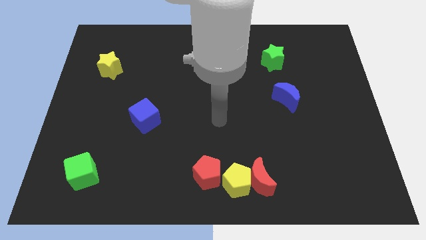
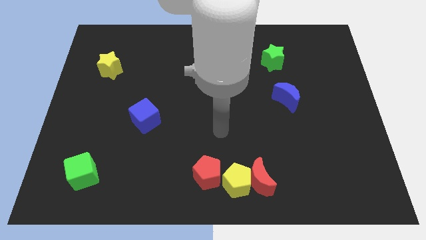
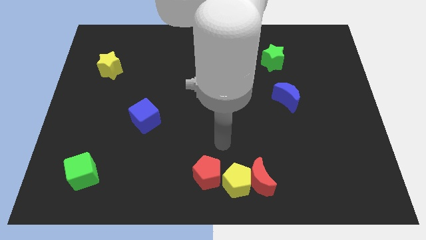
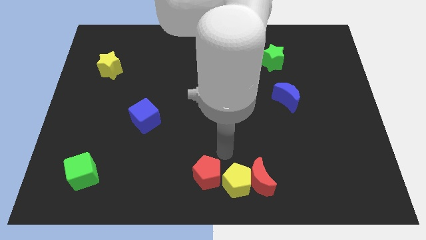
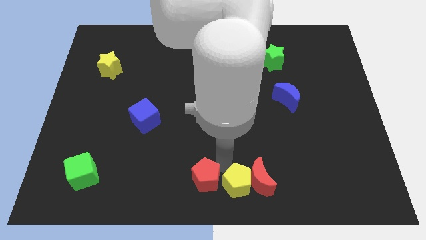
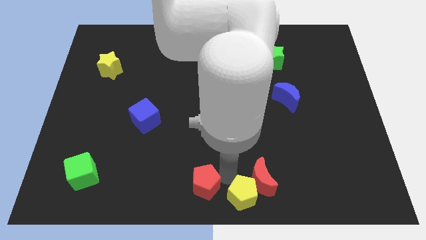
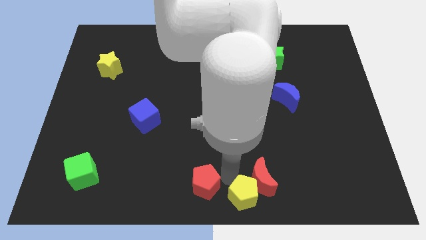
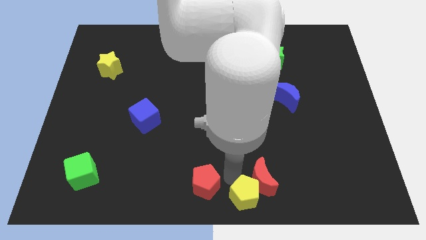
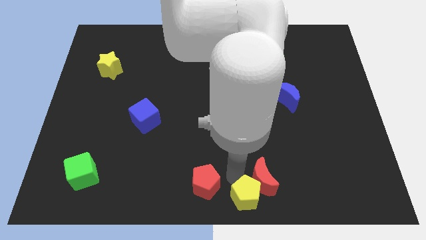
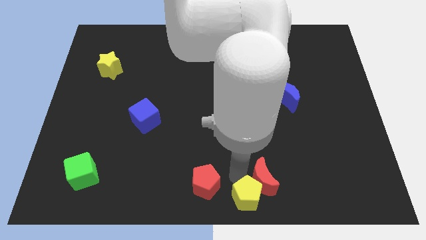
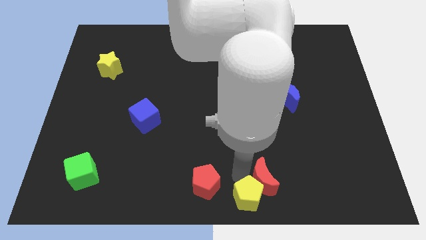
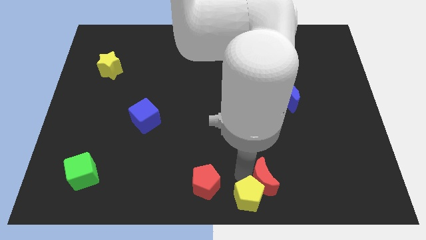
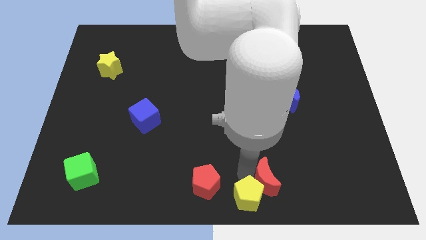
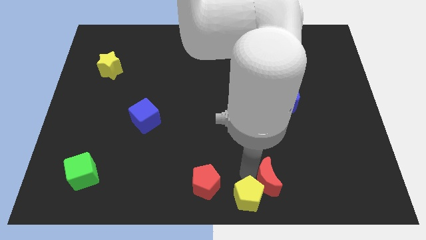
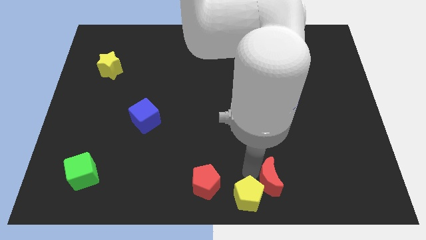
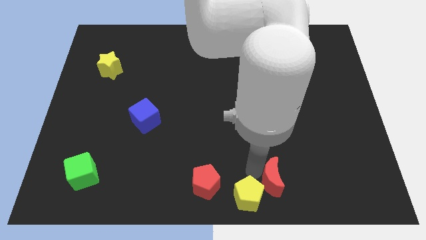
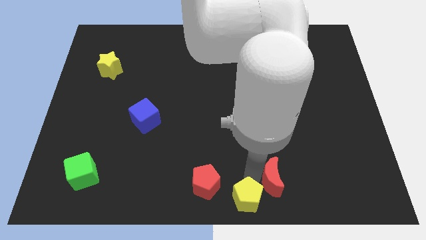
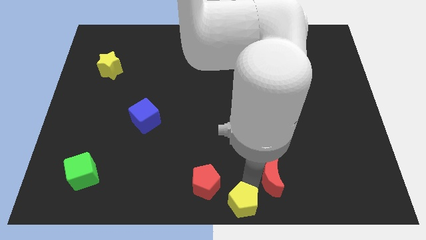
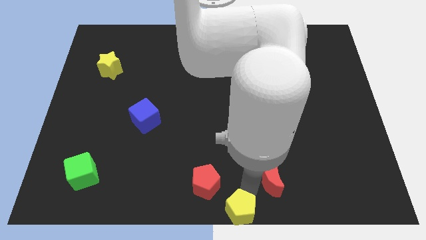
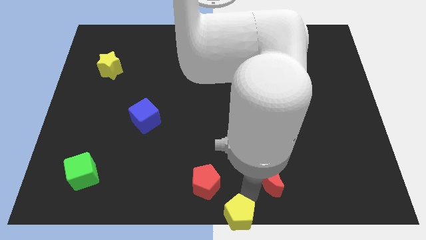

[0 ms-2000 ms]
pull the red moon apart from the yellow pentagon

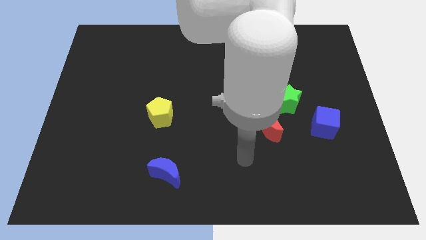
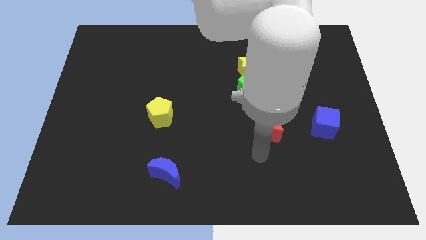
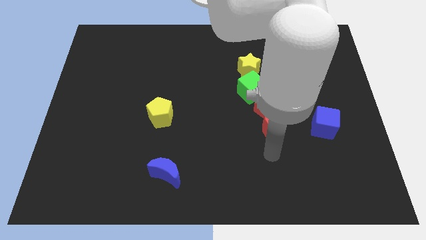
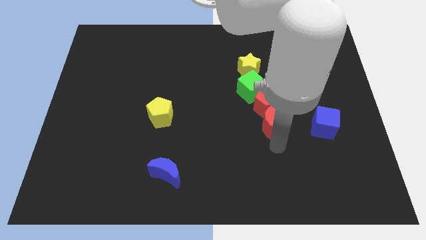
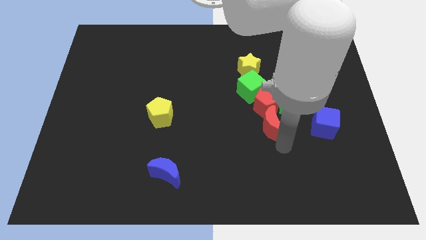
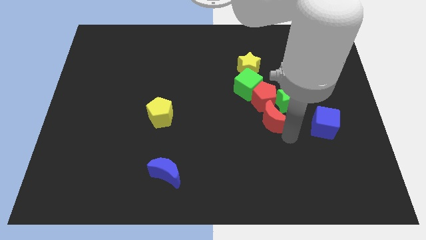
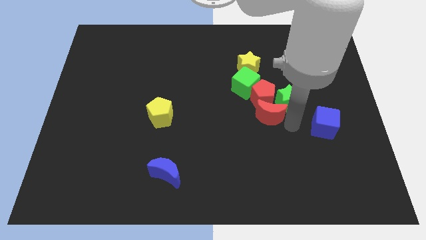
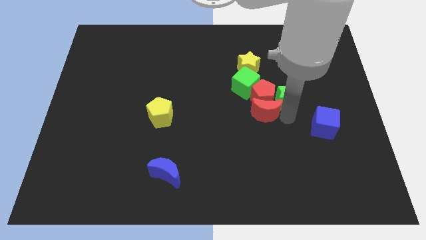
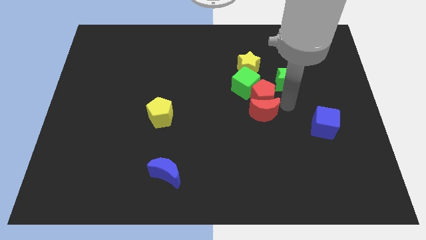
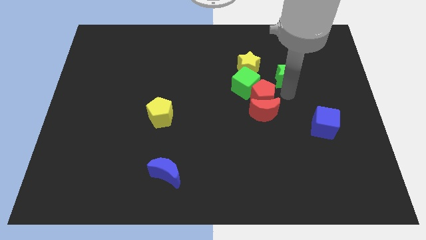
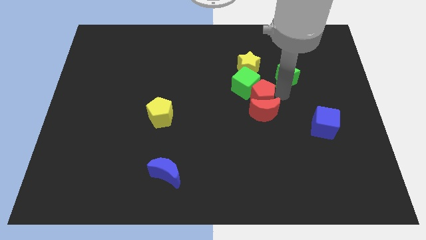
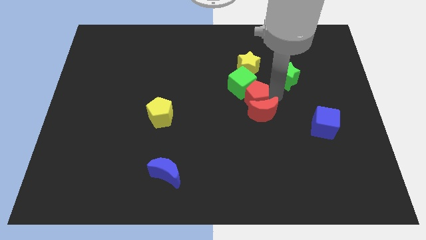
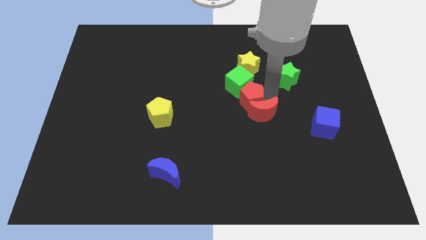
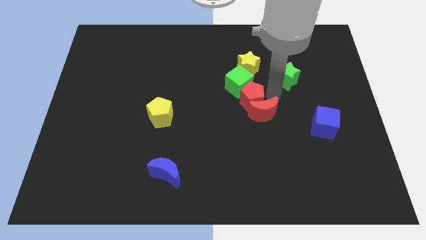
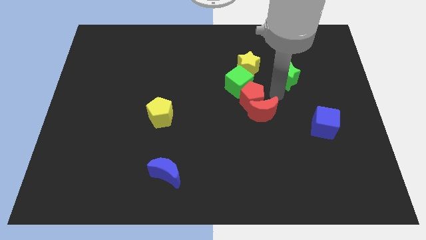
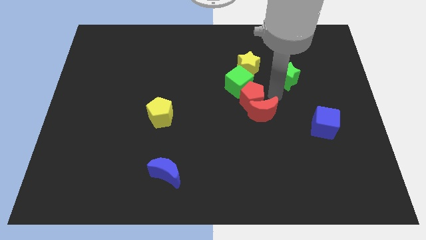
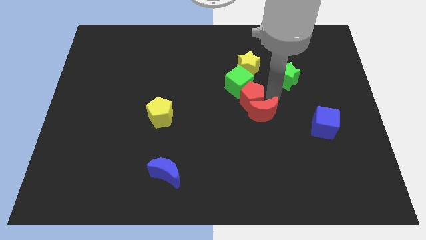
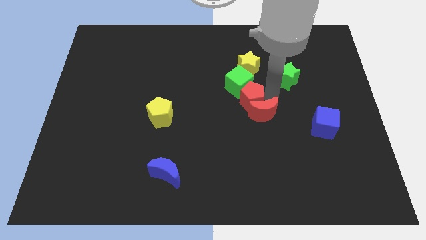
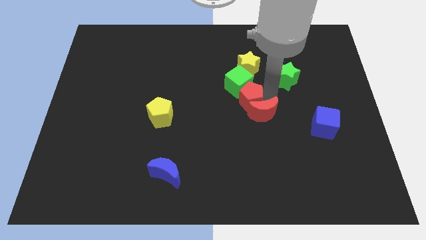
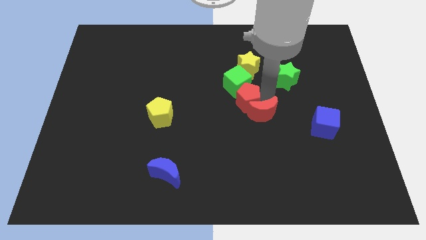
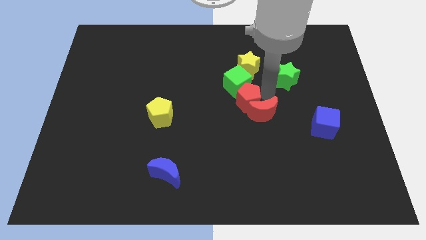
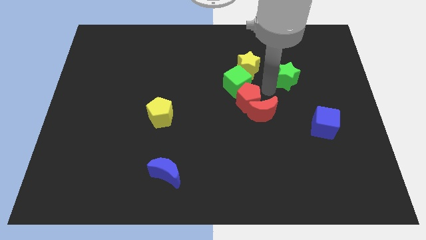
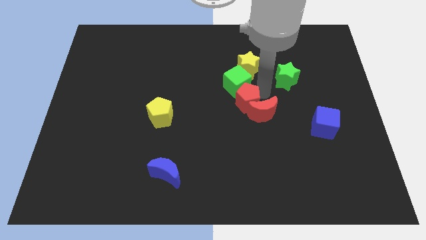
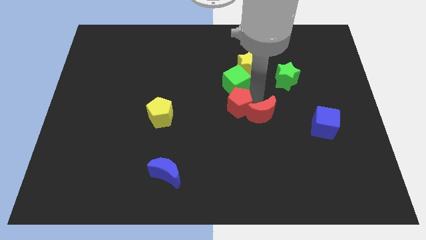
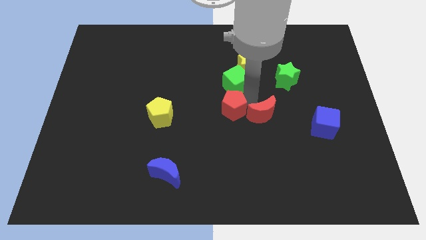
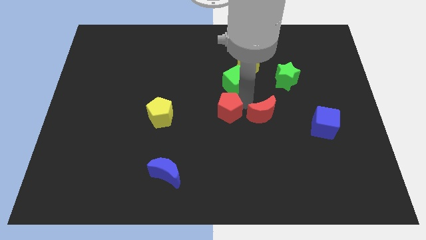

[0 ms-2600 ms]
move the red pentagon away from the green star, green cube, and red moon

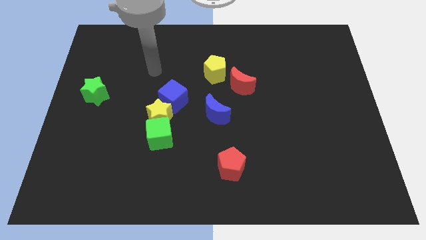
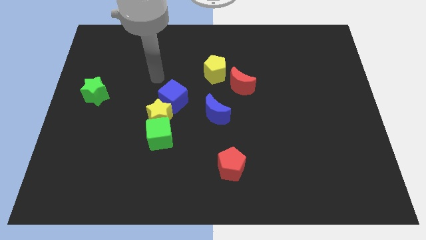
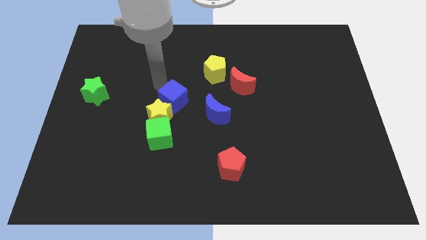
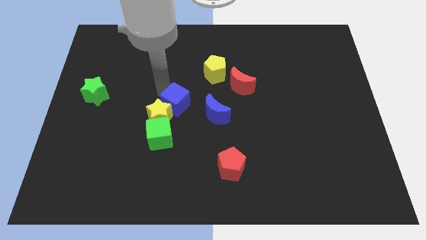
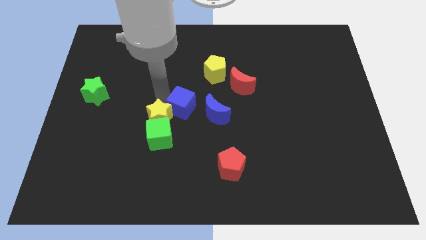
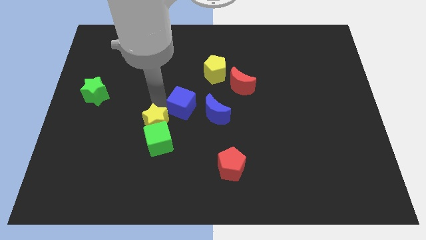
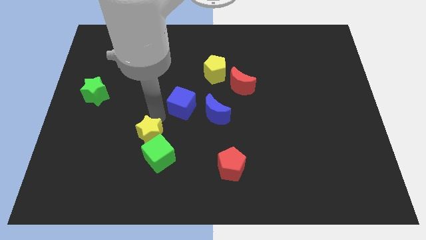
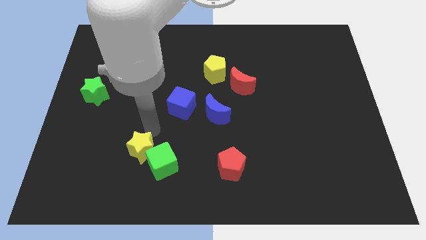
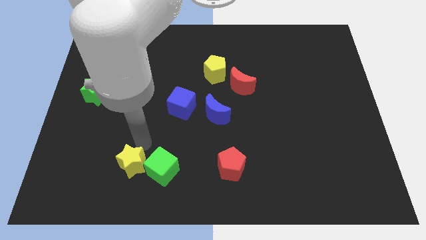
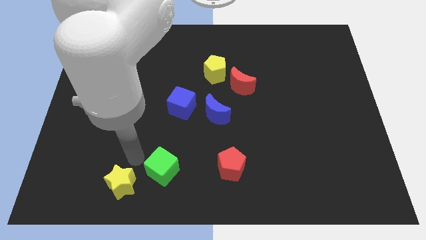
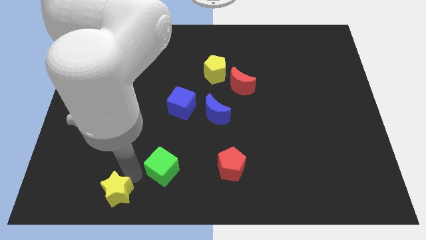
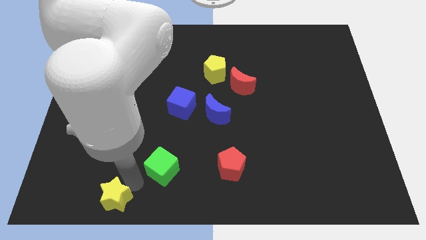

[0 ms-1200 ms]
separate the green cube from the yellow star

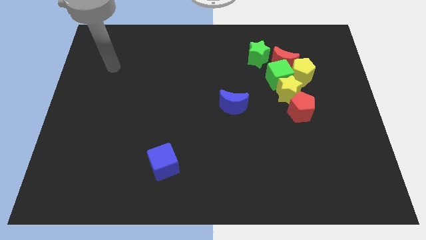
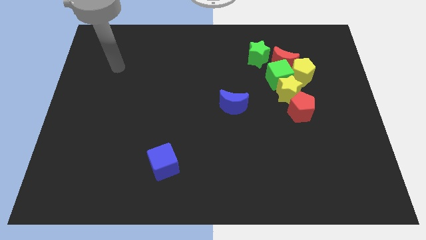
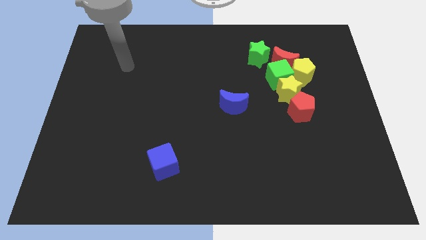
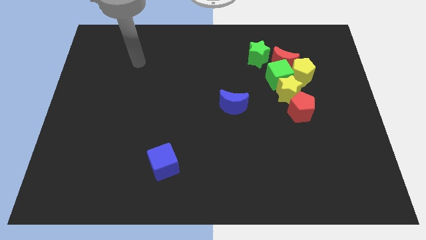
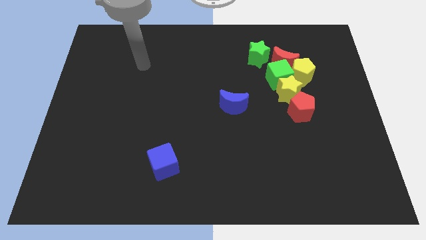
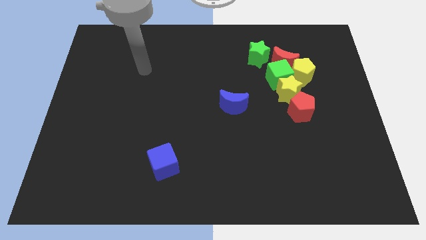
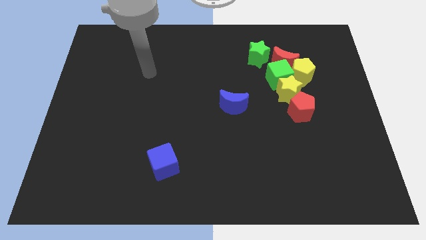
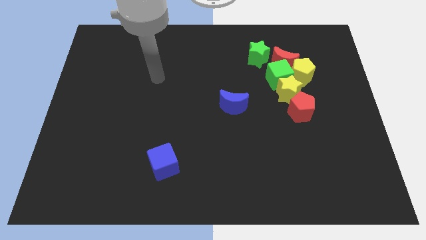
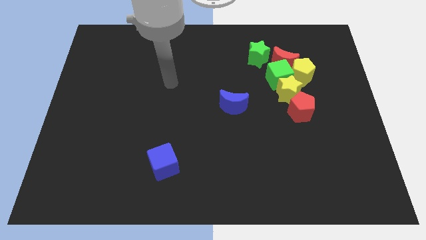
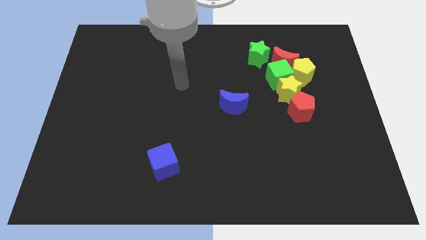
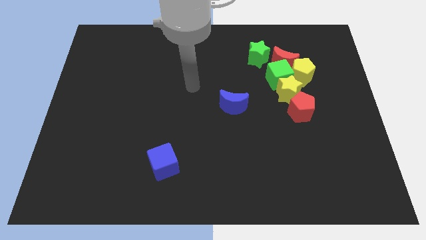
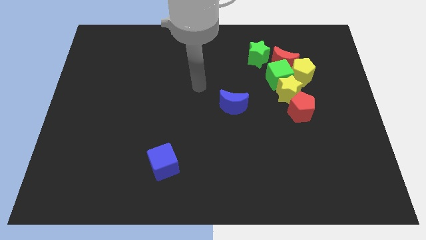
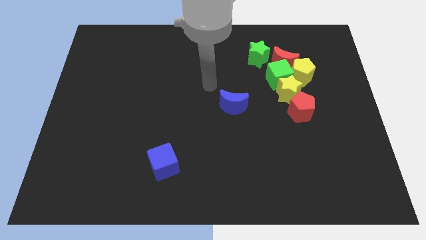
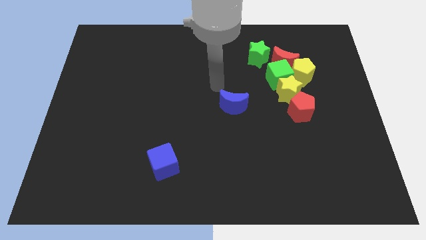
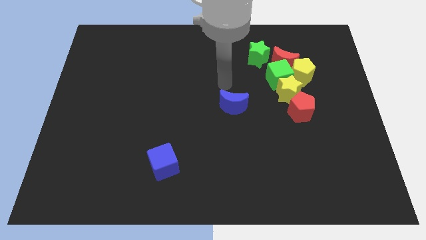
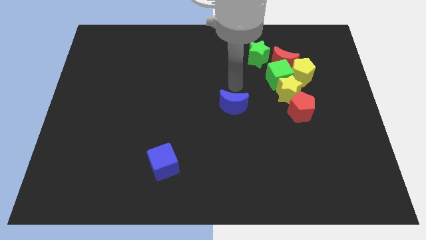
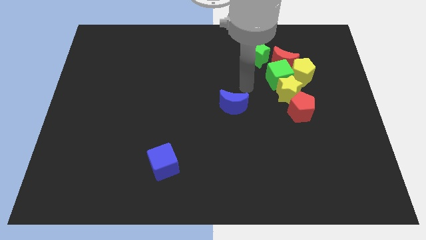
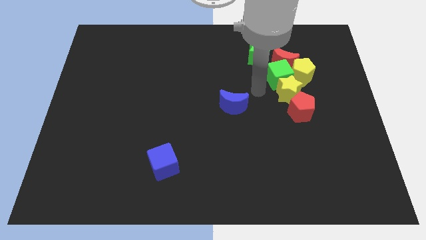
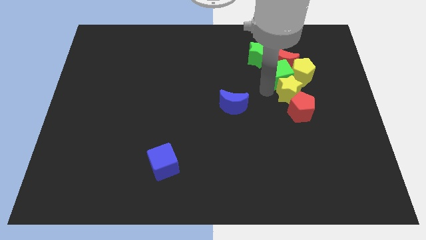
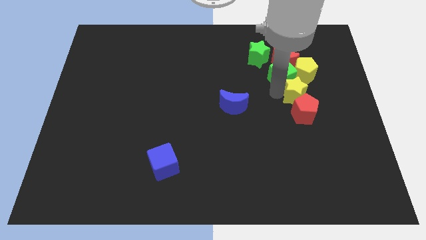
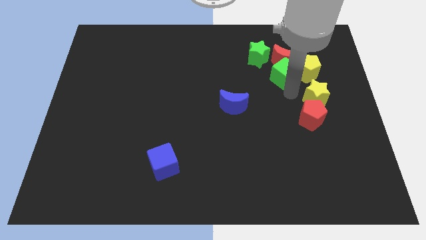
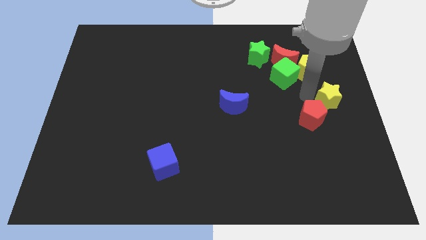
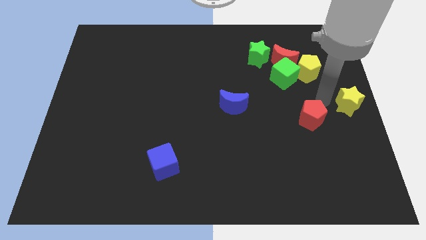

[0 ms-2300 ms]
move the red pentagon away from the yellow star

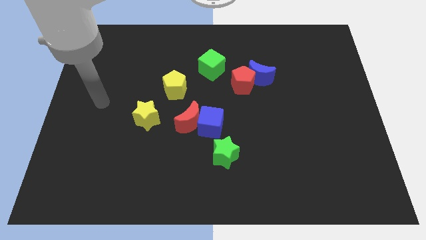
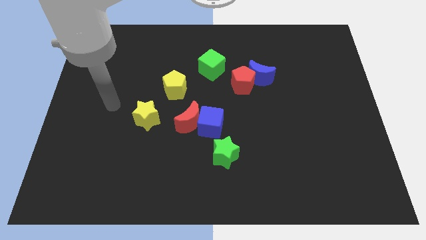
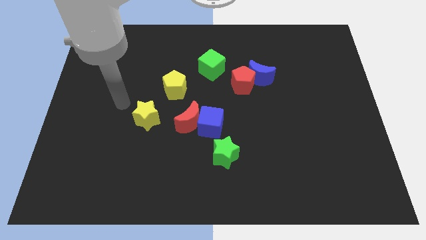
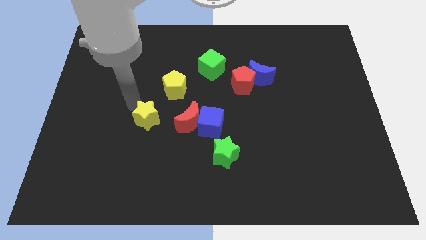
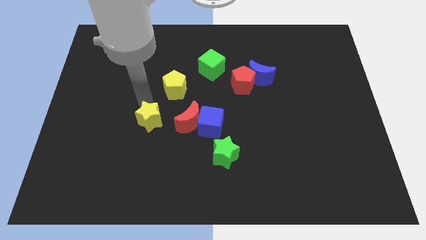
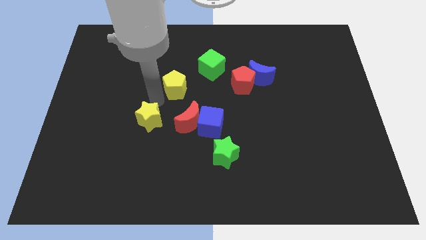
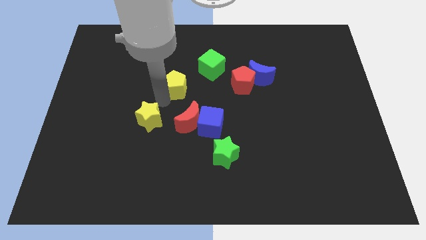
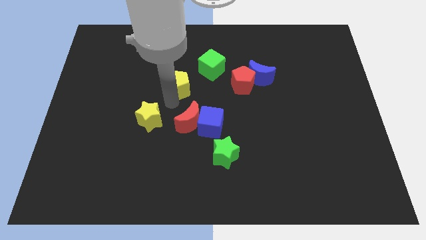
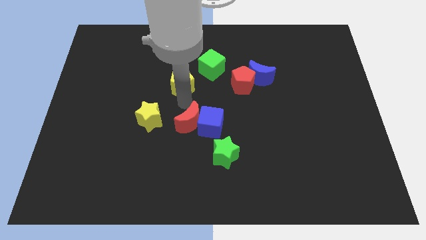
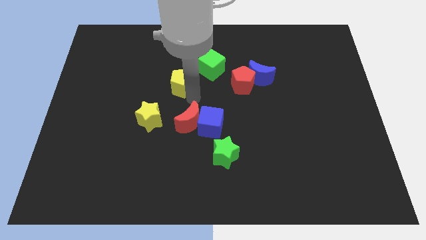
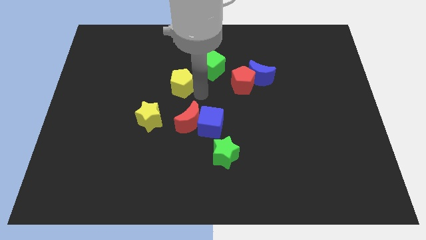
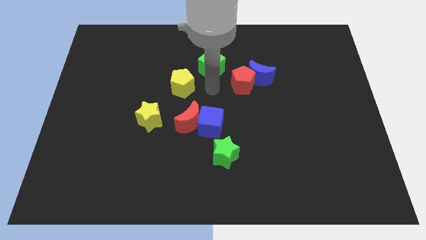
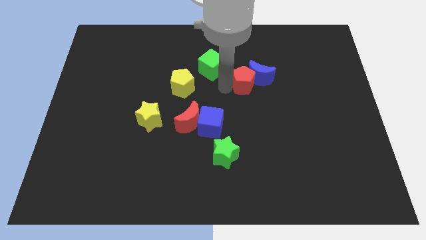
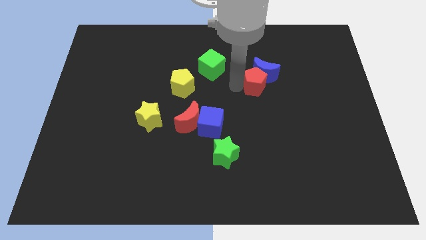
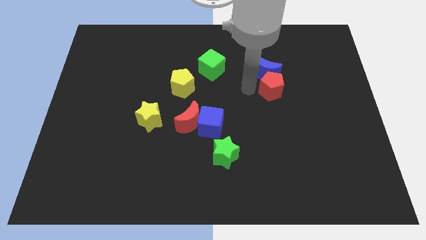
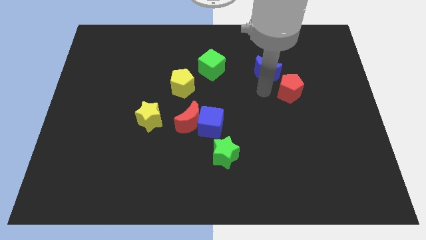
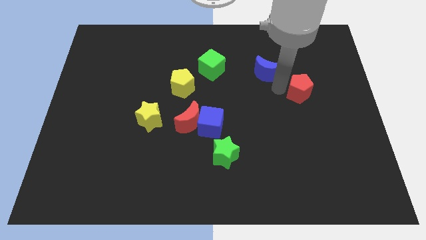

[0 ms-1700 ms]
separate the blue moon from the red pentagon
